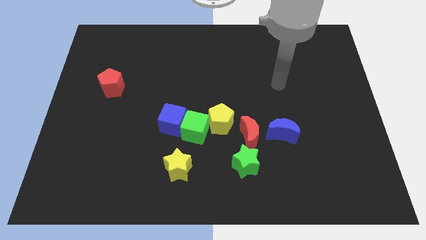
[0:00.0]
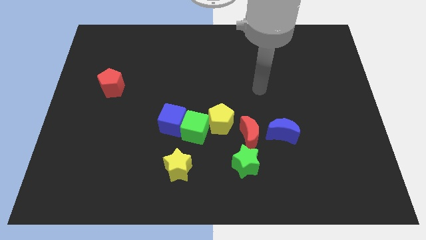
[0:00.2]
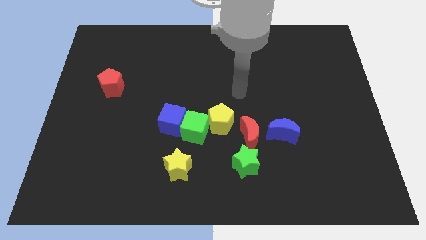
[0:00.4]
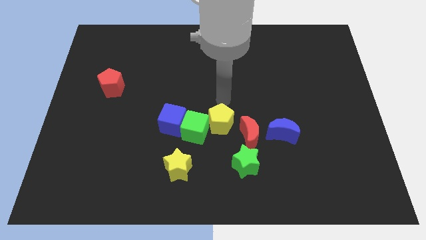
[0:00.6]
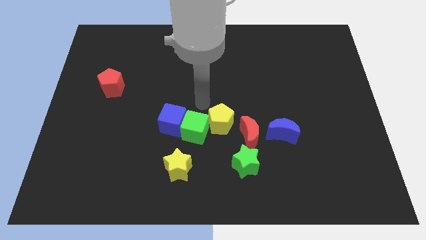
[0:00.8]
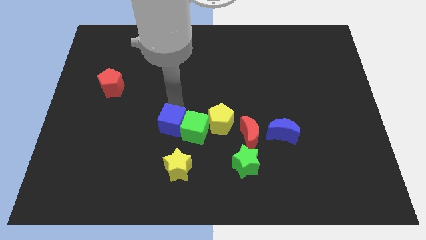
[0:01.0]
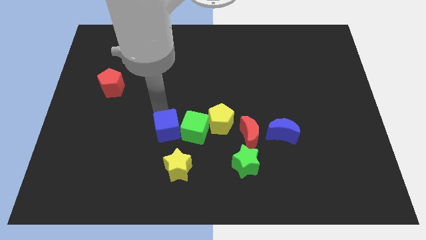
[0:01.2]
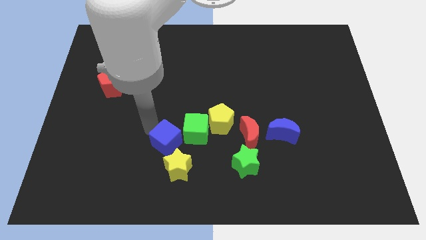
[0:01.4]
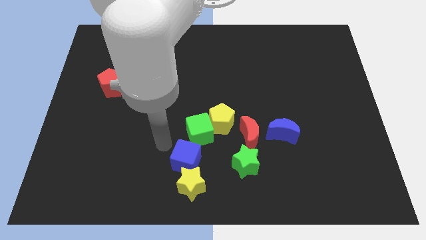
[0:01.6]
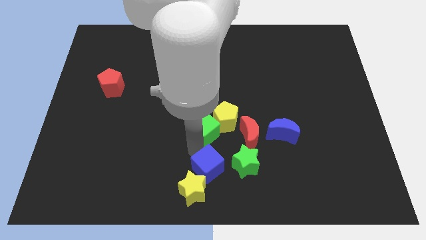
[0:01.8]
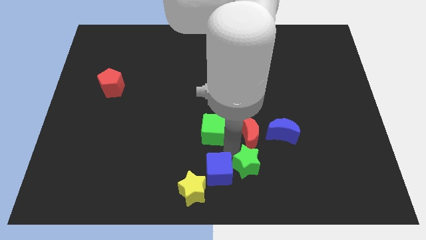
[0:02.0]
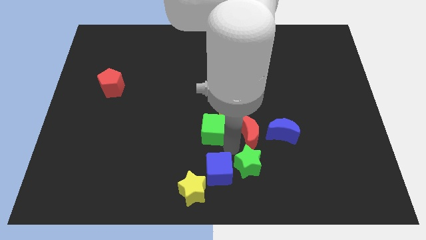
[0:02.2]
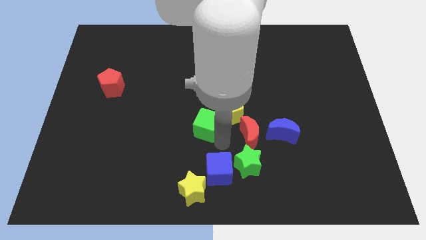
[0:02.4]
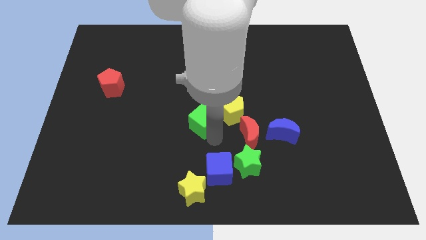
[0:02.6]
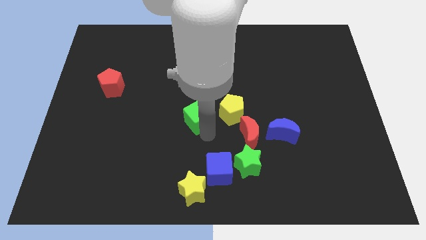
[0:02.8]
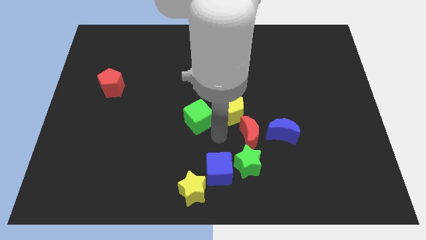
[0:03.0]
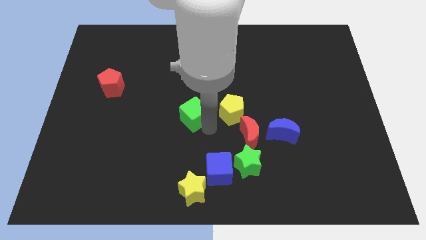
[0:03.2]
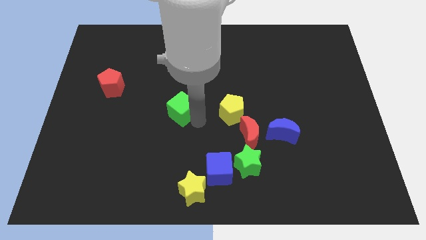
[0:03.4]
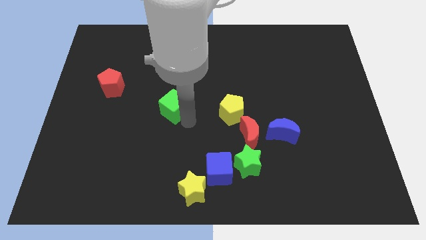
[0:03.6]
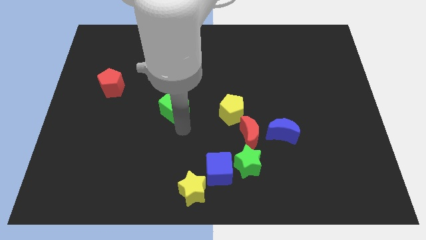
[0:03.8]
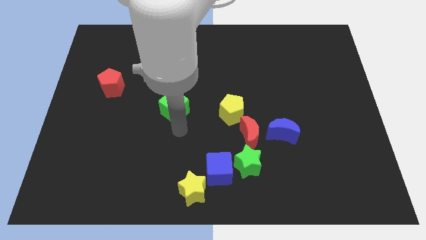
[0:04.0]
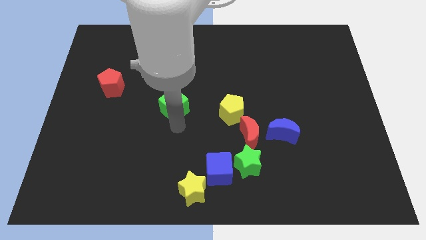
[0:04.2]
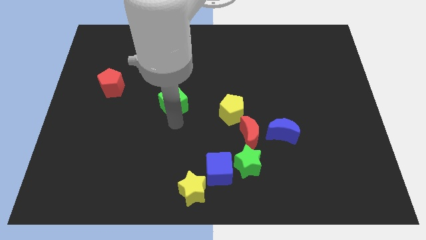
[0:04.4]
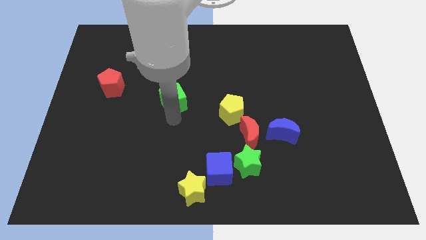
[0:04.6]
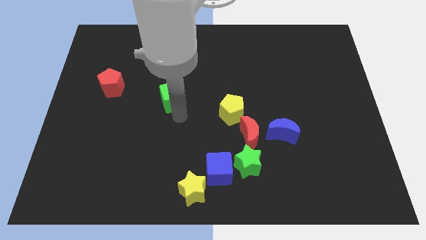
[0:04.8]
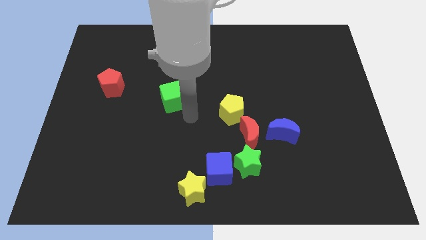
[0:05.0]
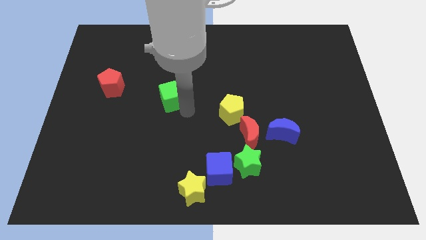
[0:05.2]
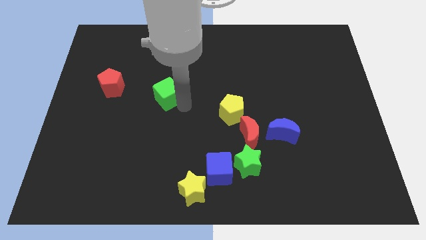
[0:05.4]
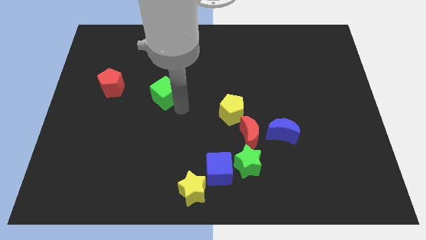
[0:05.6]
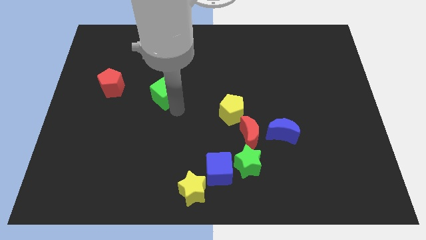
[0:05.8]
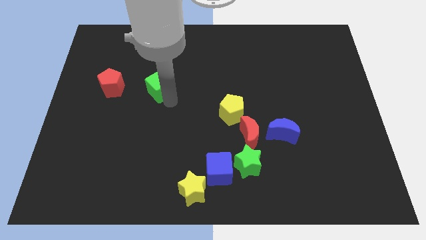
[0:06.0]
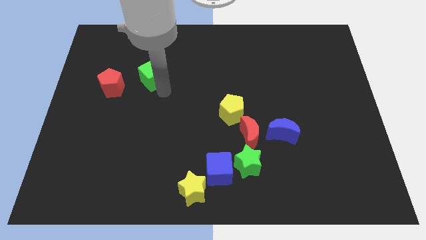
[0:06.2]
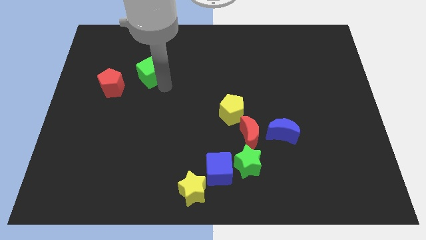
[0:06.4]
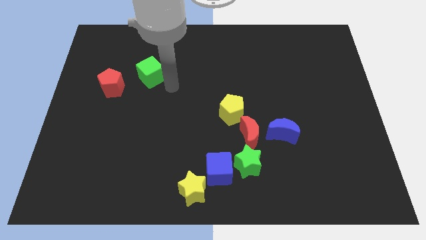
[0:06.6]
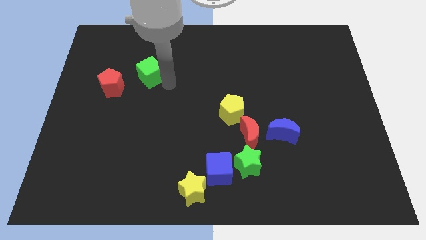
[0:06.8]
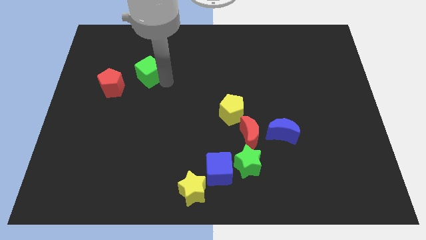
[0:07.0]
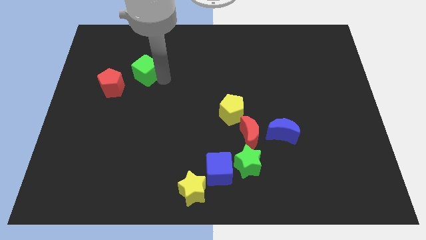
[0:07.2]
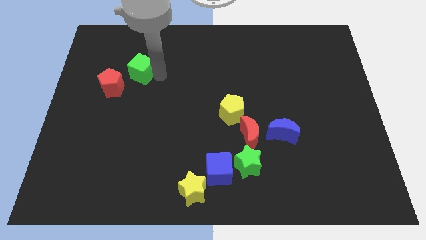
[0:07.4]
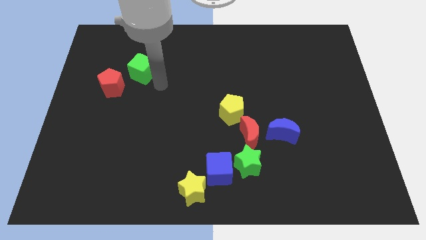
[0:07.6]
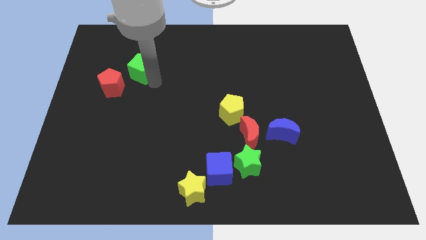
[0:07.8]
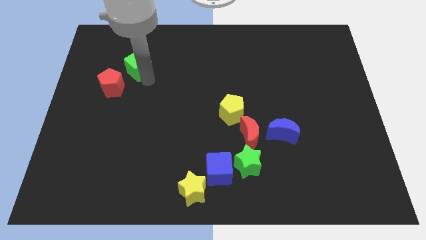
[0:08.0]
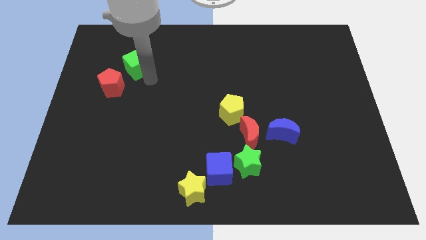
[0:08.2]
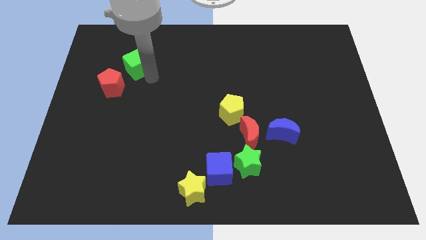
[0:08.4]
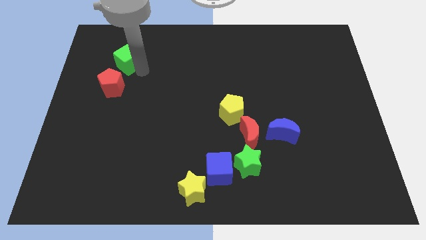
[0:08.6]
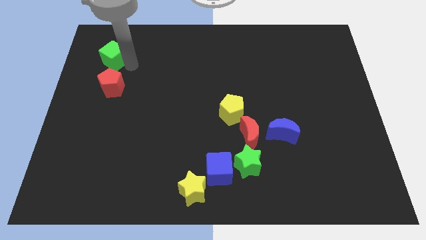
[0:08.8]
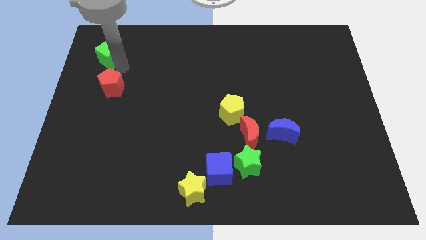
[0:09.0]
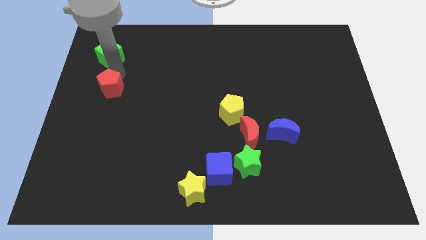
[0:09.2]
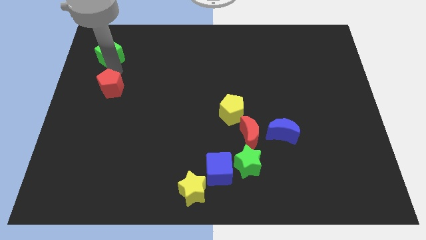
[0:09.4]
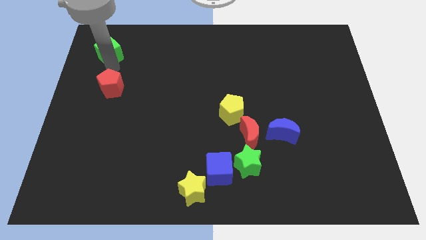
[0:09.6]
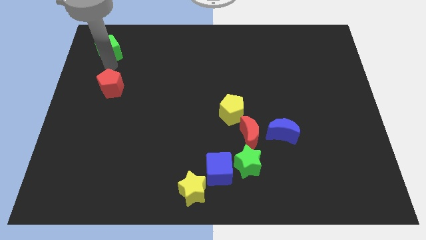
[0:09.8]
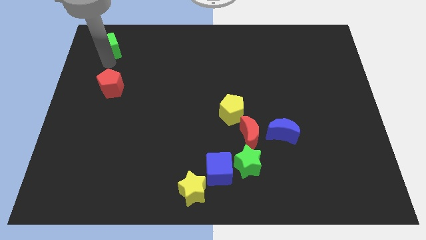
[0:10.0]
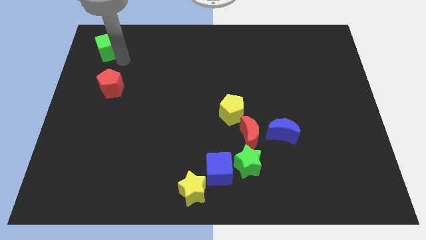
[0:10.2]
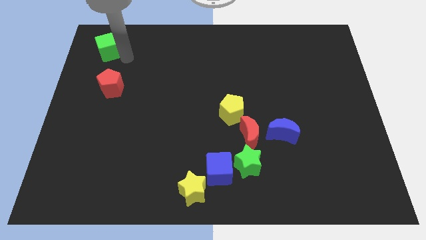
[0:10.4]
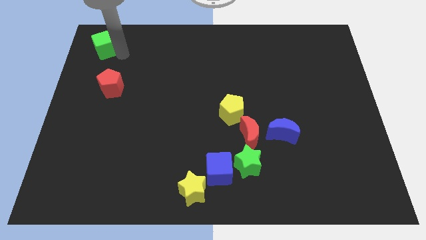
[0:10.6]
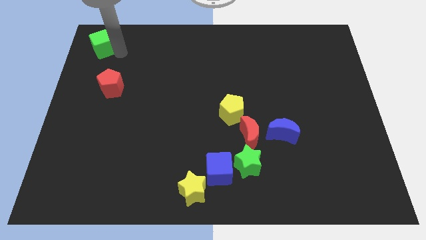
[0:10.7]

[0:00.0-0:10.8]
put the green cube to the top left of the board
